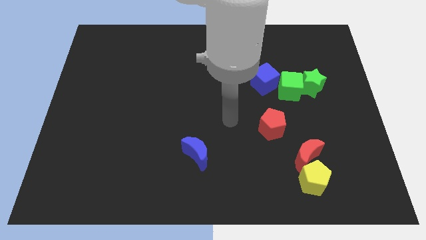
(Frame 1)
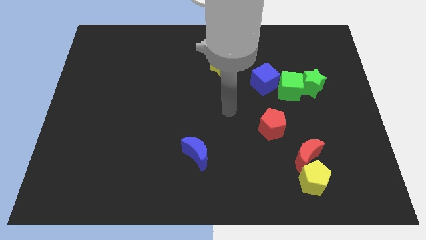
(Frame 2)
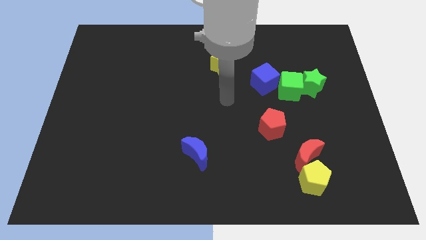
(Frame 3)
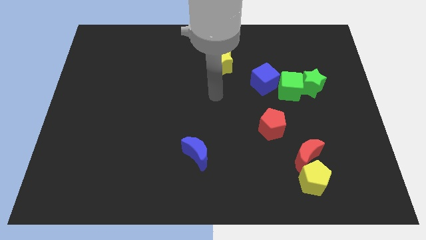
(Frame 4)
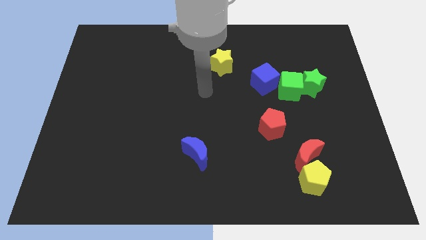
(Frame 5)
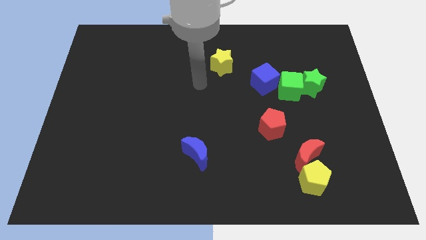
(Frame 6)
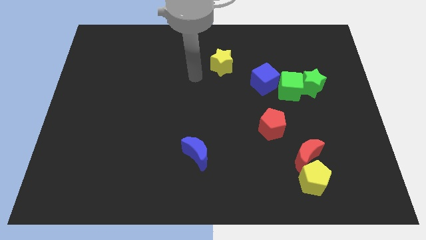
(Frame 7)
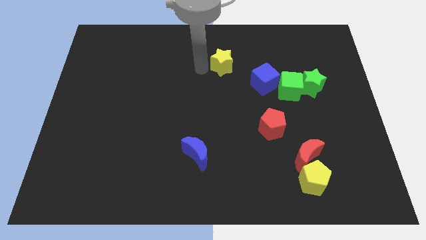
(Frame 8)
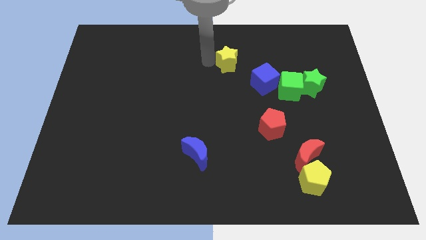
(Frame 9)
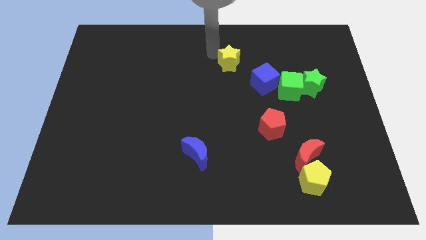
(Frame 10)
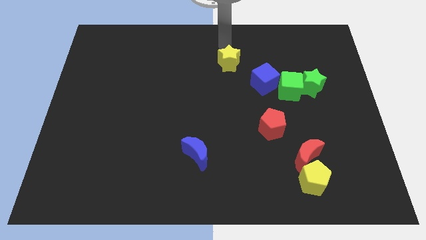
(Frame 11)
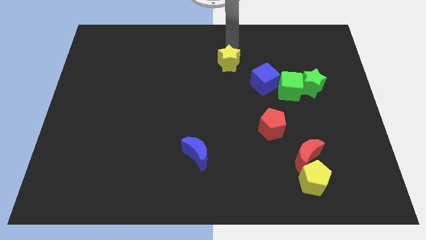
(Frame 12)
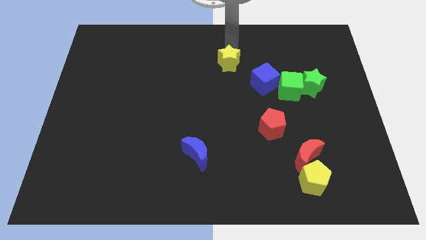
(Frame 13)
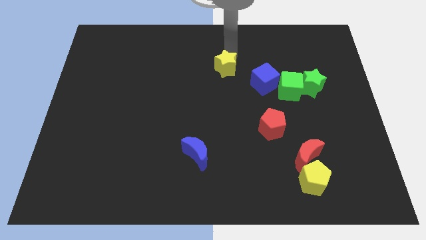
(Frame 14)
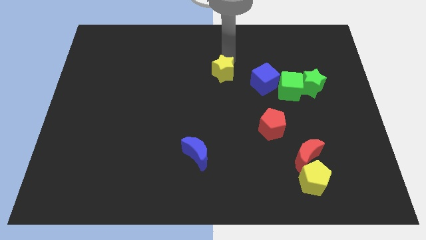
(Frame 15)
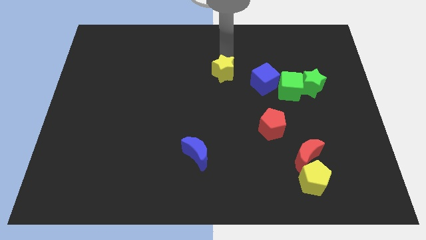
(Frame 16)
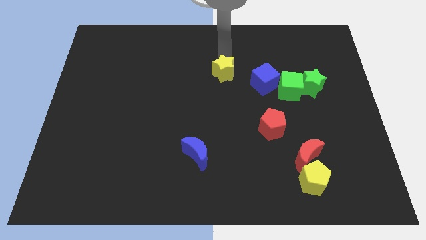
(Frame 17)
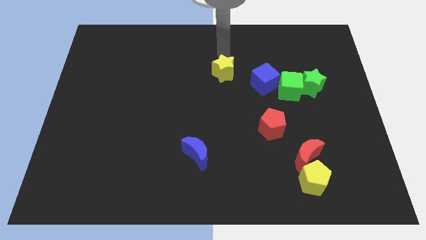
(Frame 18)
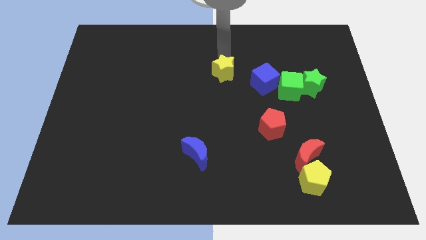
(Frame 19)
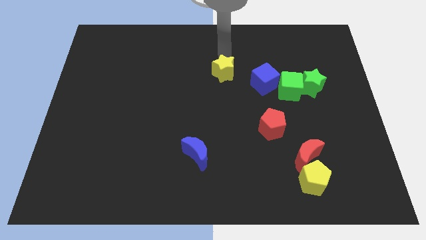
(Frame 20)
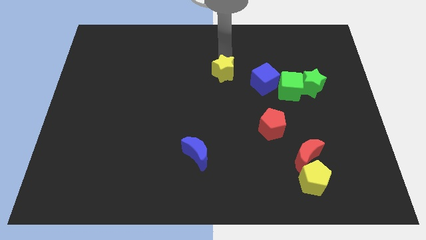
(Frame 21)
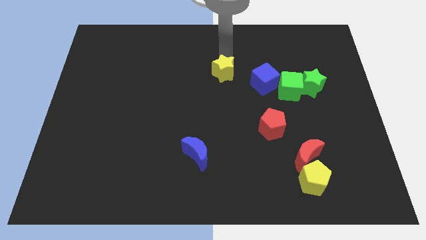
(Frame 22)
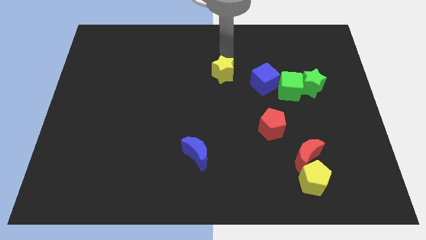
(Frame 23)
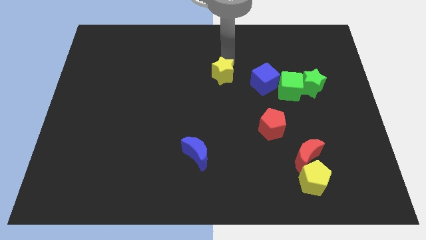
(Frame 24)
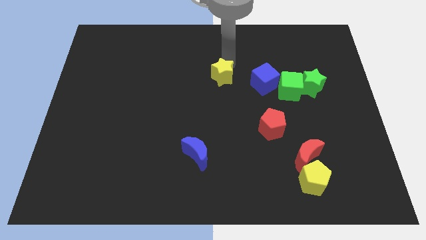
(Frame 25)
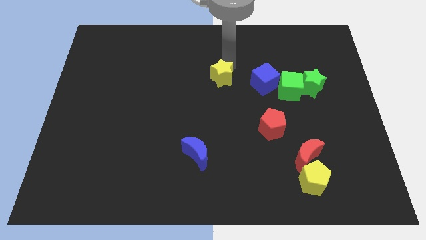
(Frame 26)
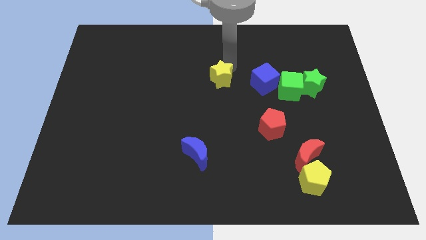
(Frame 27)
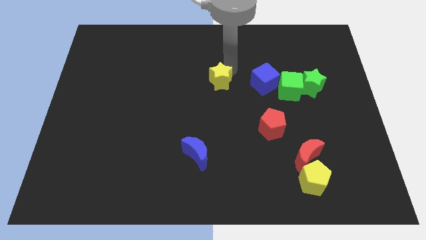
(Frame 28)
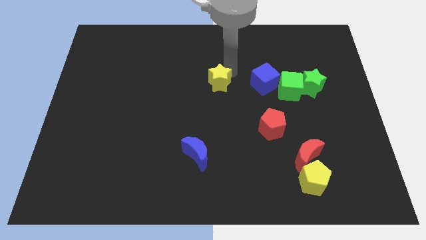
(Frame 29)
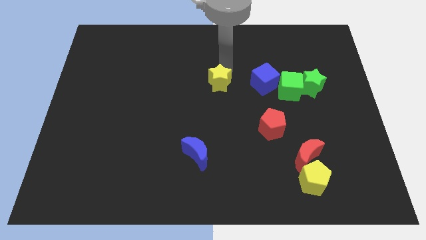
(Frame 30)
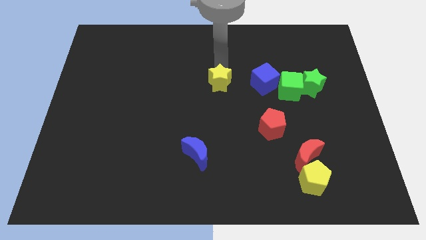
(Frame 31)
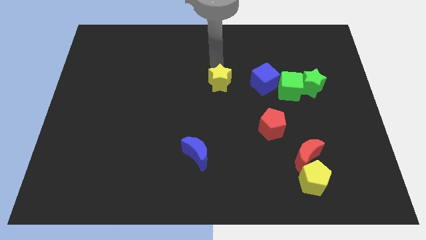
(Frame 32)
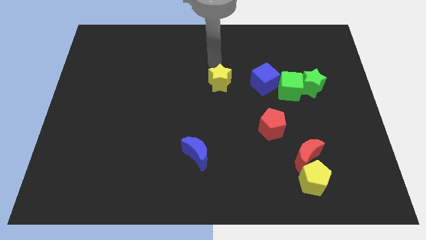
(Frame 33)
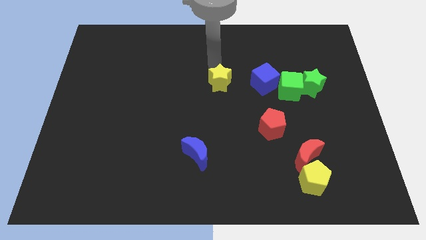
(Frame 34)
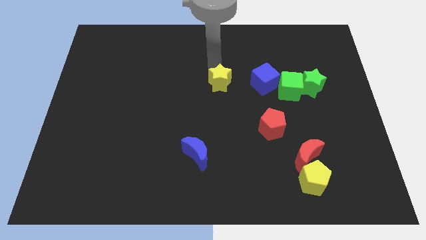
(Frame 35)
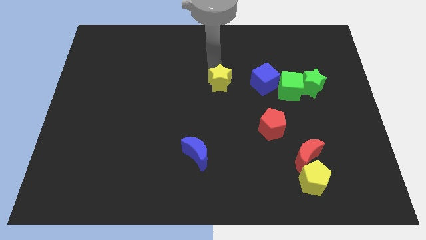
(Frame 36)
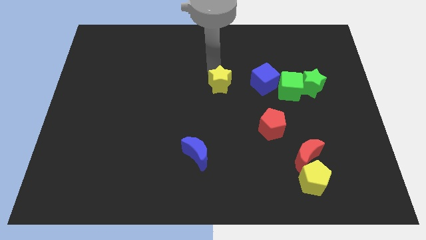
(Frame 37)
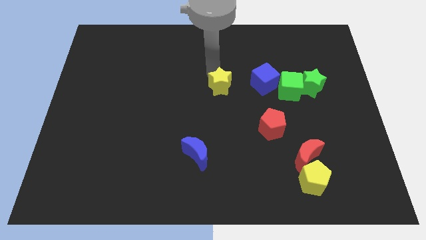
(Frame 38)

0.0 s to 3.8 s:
slightly move the yellow star downwards

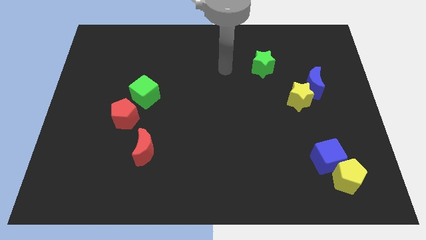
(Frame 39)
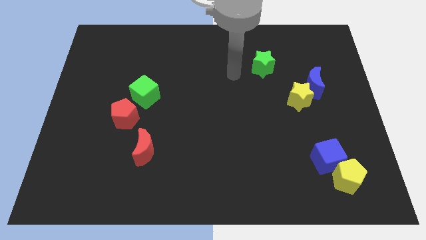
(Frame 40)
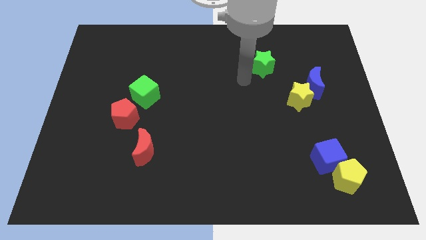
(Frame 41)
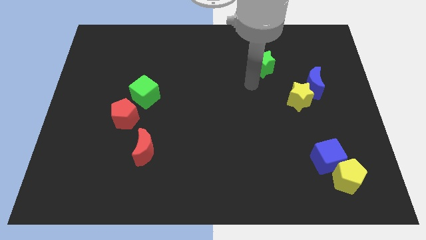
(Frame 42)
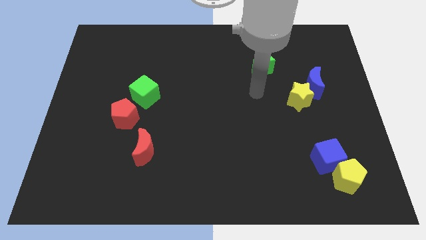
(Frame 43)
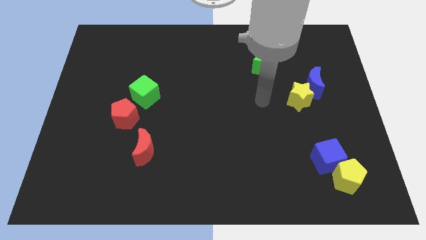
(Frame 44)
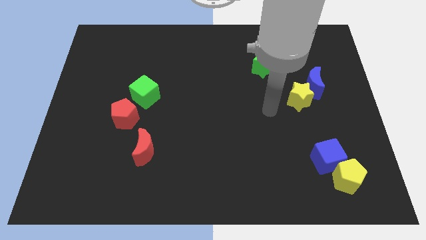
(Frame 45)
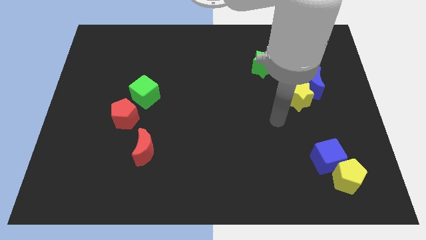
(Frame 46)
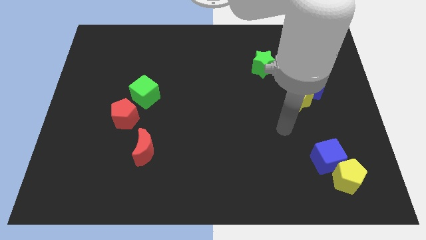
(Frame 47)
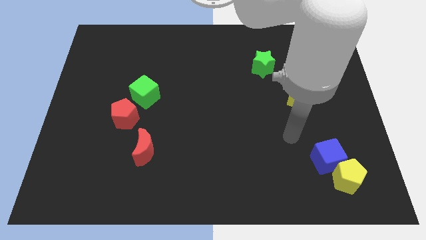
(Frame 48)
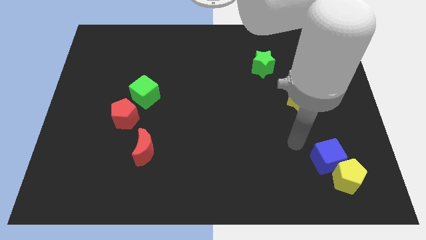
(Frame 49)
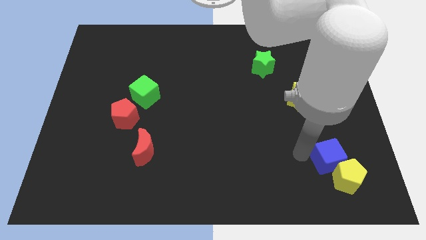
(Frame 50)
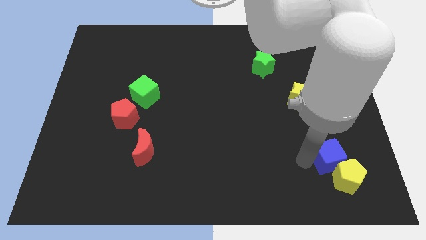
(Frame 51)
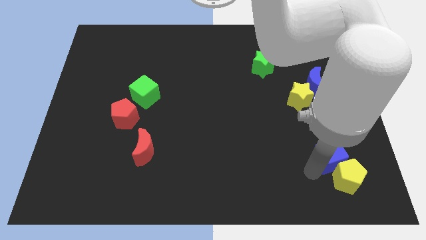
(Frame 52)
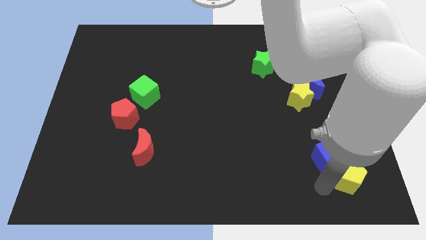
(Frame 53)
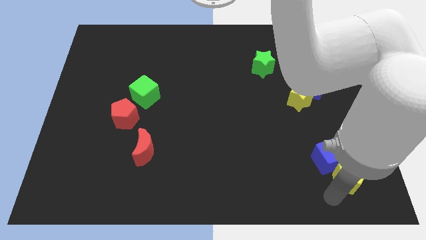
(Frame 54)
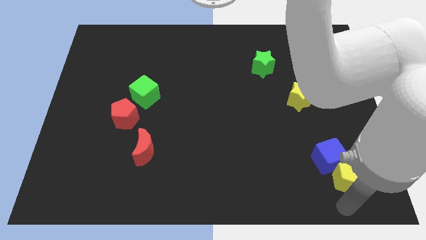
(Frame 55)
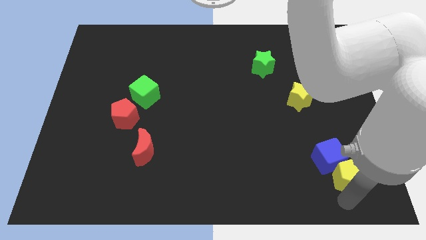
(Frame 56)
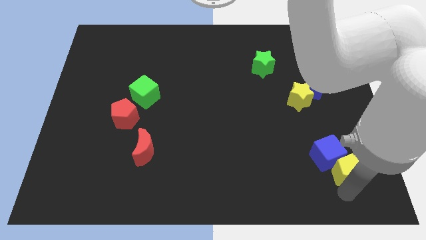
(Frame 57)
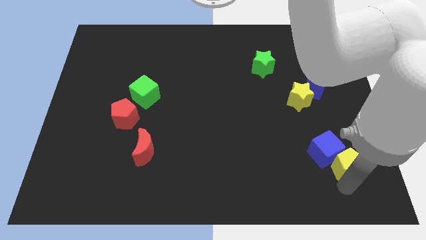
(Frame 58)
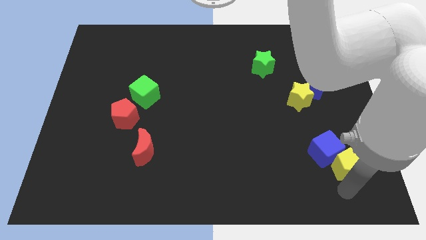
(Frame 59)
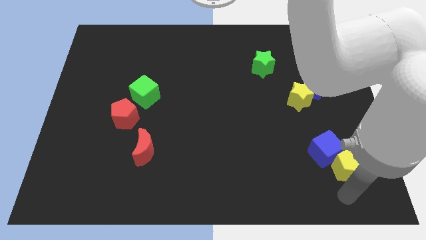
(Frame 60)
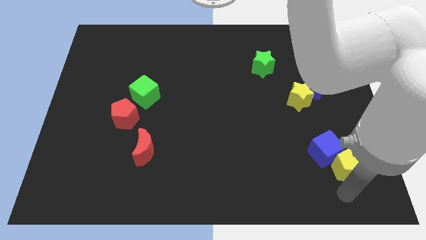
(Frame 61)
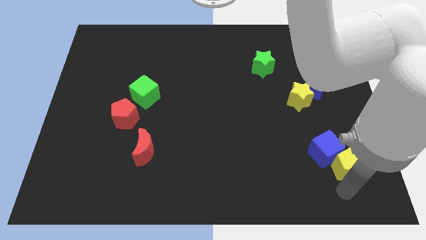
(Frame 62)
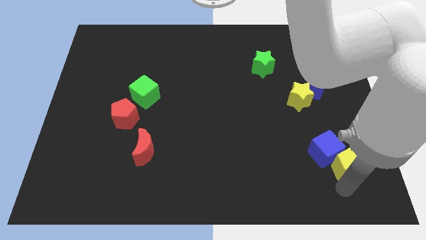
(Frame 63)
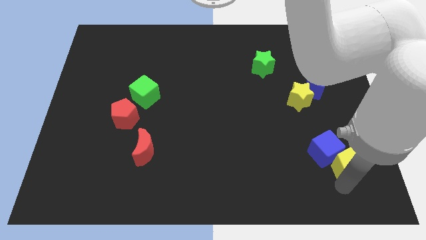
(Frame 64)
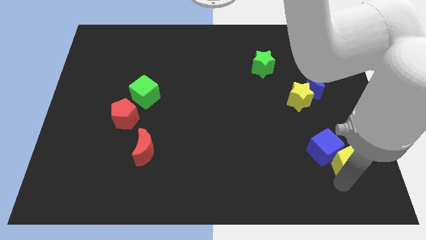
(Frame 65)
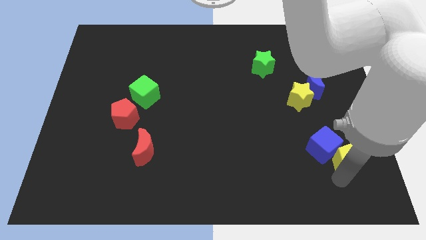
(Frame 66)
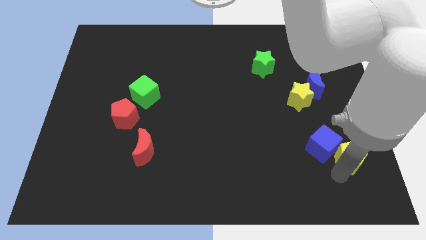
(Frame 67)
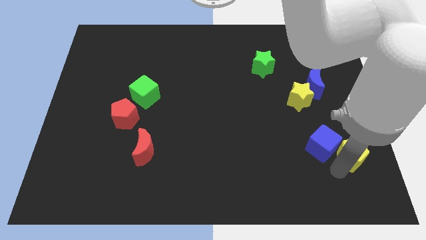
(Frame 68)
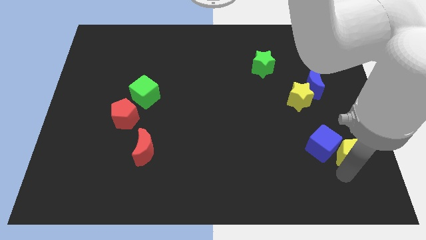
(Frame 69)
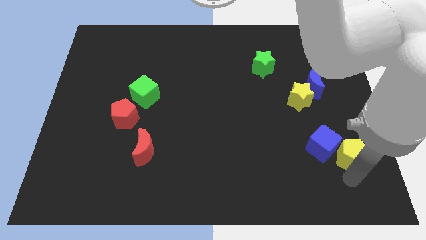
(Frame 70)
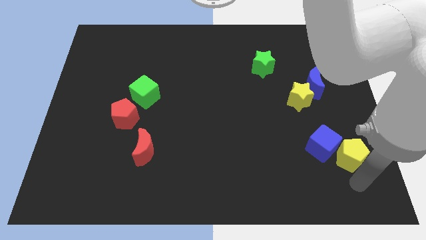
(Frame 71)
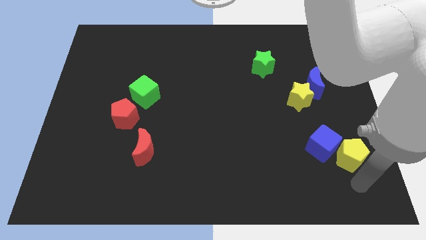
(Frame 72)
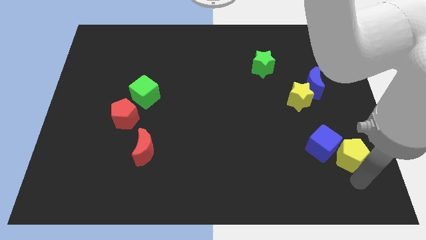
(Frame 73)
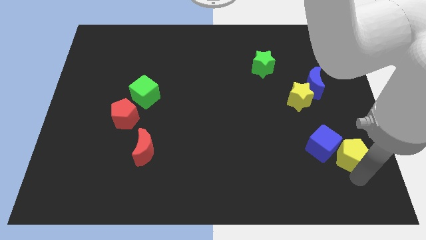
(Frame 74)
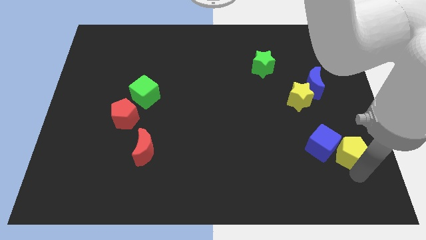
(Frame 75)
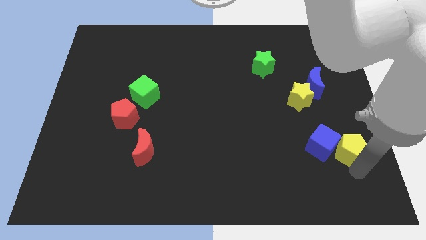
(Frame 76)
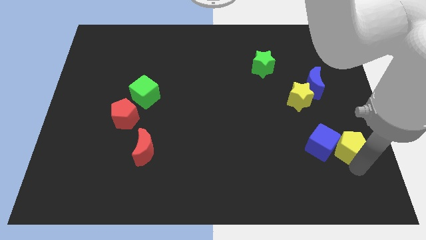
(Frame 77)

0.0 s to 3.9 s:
push the yellow pentagon a little bit upwards

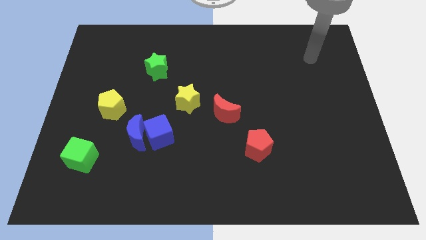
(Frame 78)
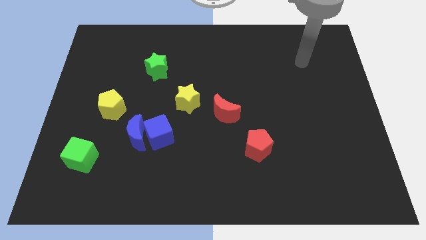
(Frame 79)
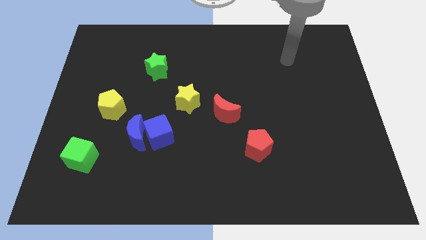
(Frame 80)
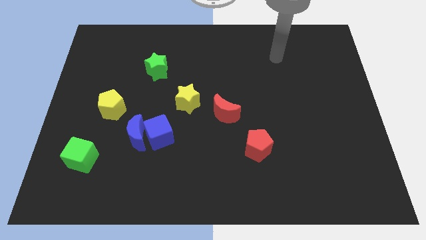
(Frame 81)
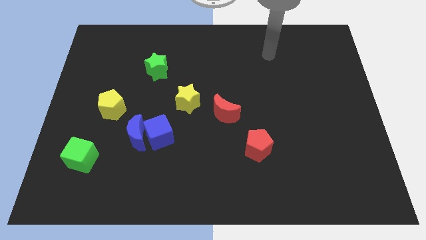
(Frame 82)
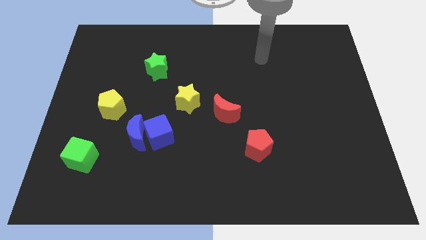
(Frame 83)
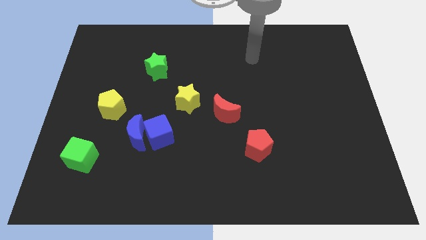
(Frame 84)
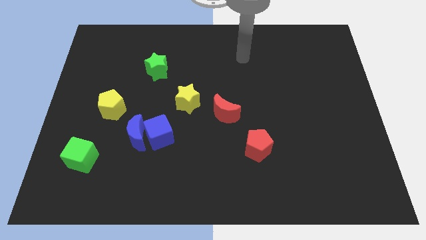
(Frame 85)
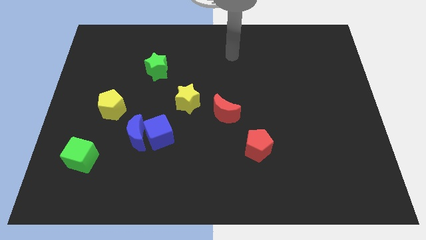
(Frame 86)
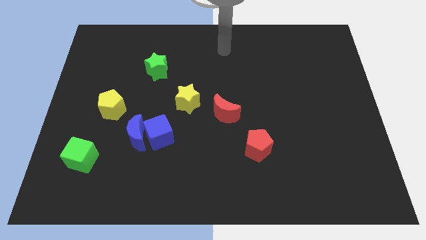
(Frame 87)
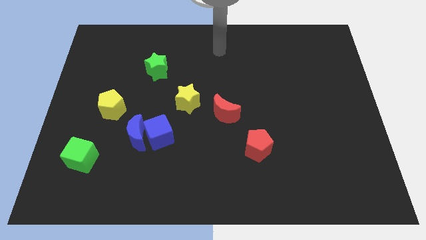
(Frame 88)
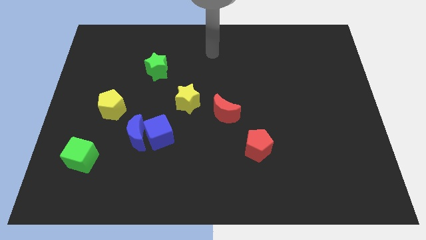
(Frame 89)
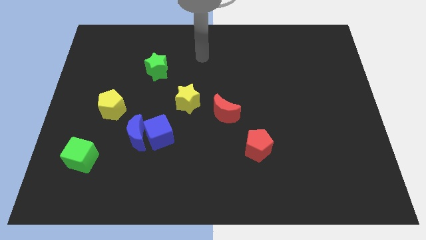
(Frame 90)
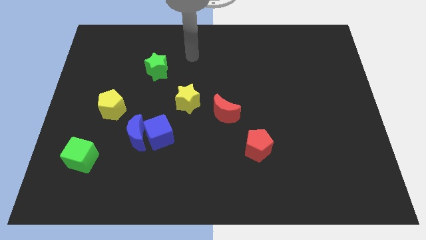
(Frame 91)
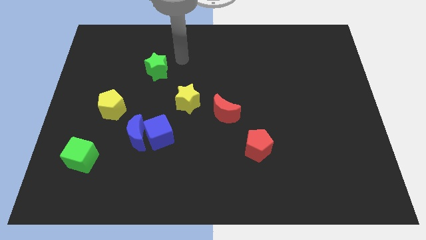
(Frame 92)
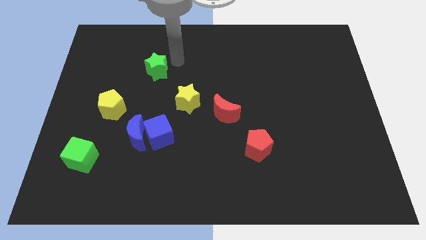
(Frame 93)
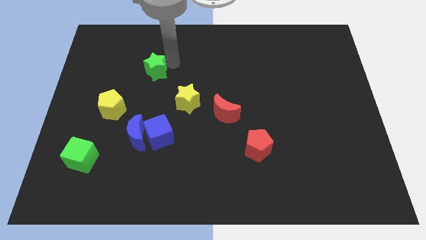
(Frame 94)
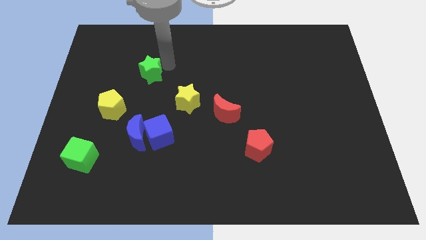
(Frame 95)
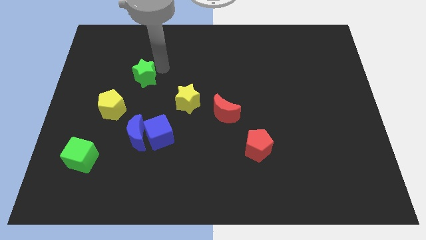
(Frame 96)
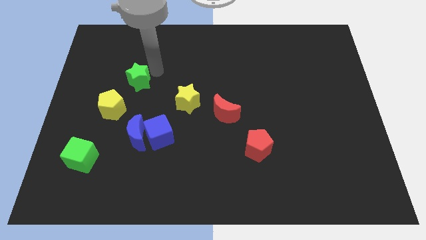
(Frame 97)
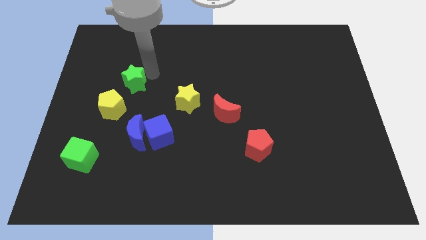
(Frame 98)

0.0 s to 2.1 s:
slightly slide the green star diagonally downwards and to the left
